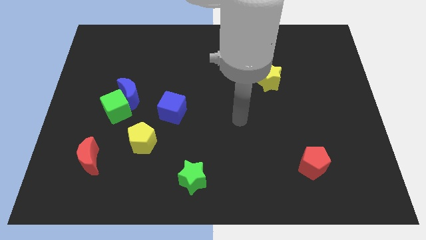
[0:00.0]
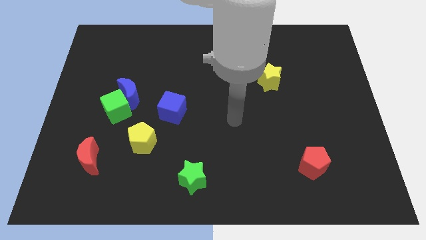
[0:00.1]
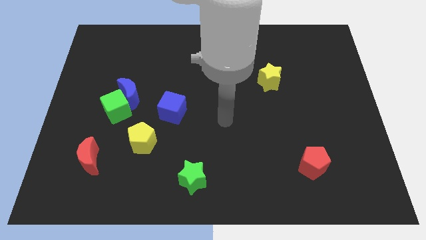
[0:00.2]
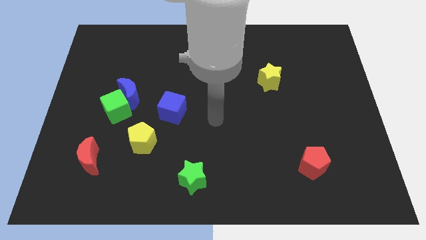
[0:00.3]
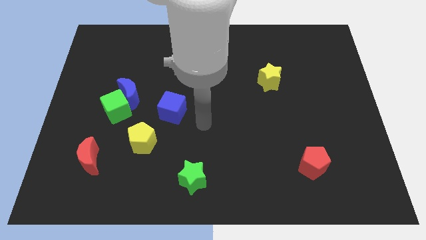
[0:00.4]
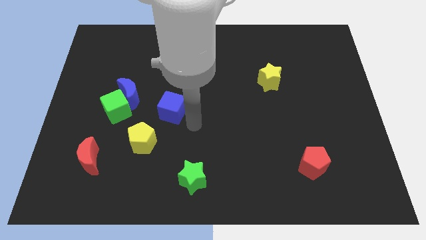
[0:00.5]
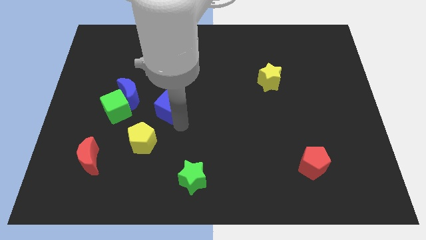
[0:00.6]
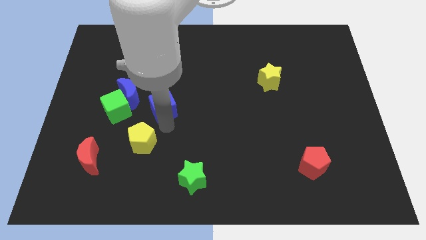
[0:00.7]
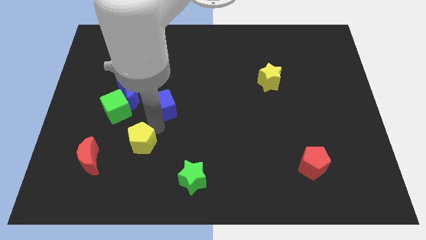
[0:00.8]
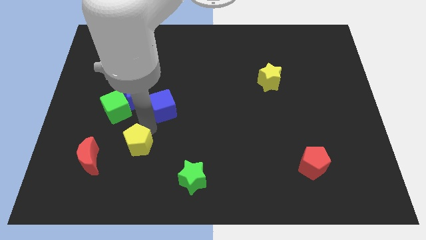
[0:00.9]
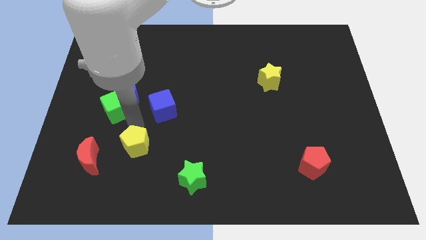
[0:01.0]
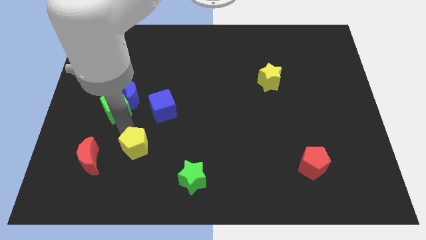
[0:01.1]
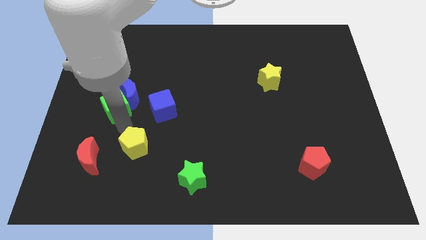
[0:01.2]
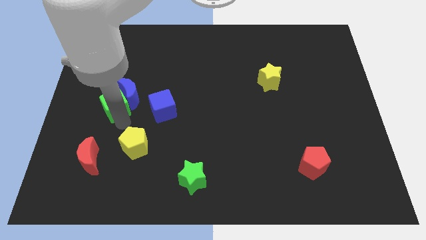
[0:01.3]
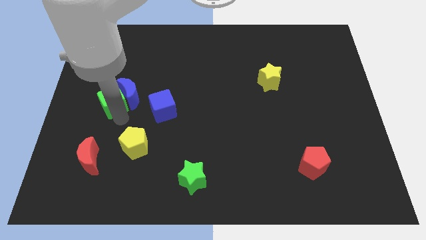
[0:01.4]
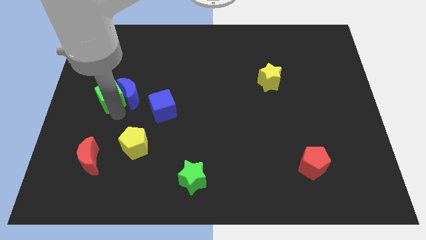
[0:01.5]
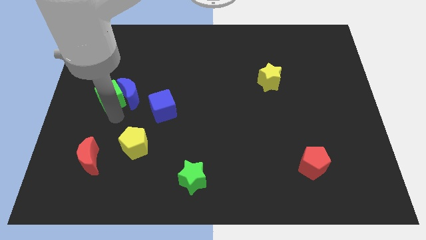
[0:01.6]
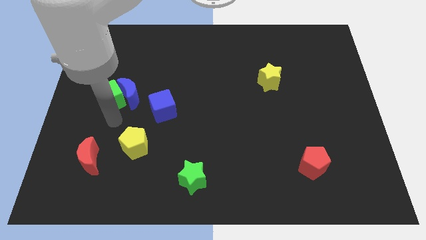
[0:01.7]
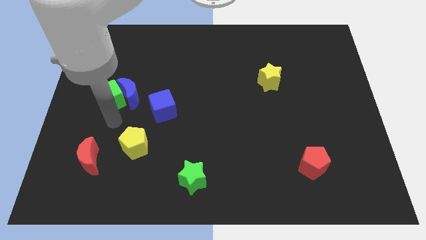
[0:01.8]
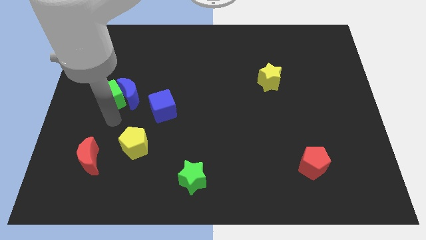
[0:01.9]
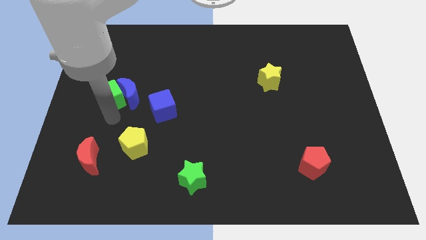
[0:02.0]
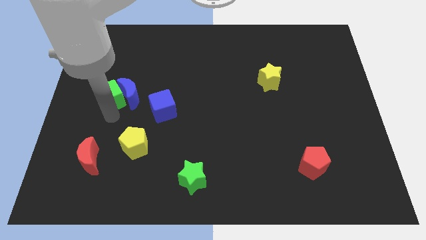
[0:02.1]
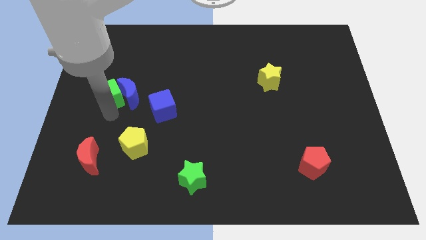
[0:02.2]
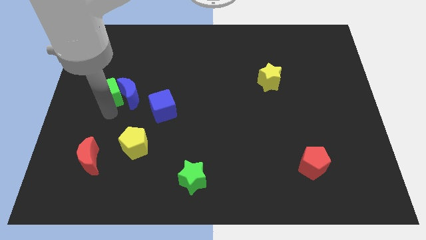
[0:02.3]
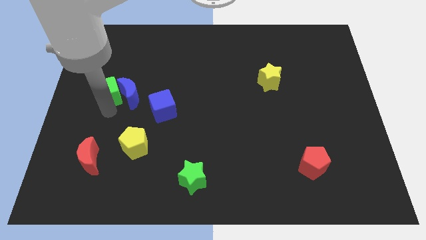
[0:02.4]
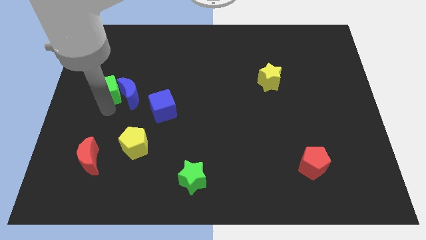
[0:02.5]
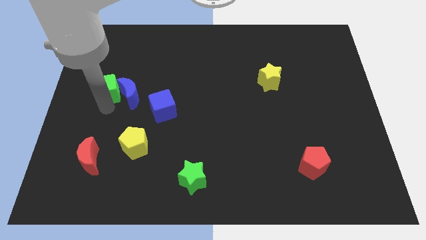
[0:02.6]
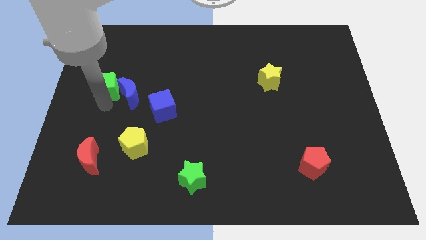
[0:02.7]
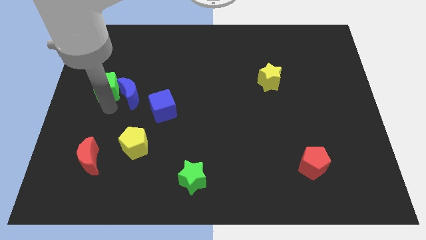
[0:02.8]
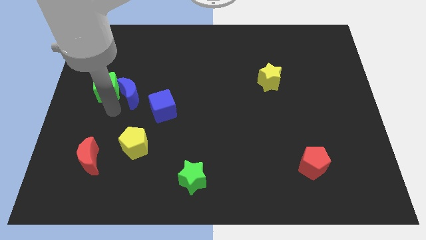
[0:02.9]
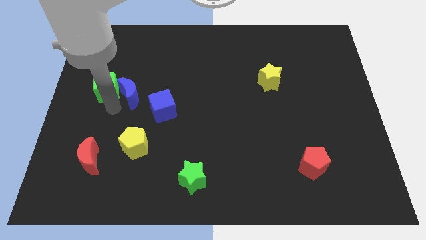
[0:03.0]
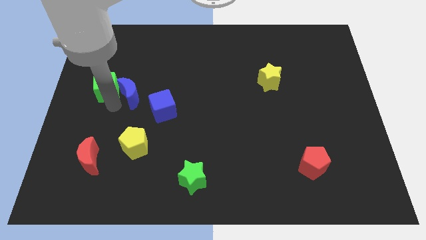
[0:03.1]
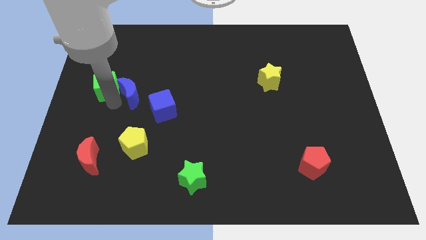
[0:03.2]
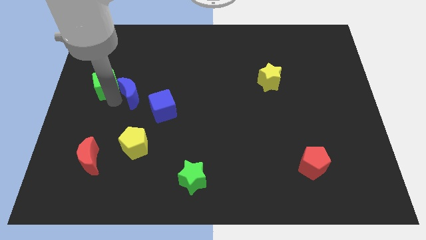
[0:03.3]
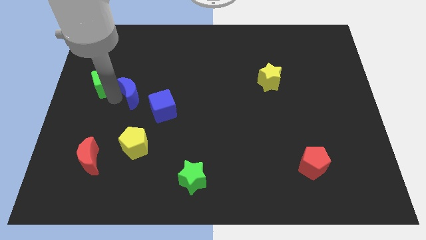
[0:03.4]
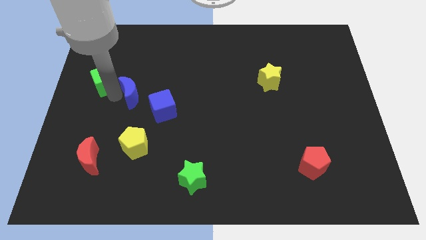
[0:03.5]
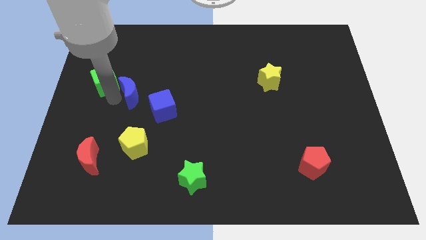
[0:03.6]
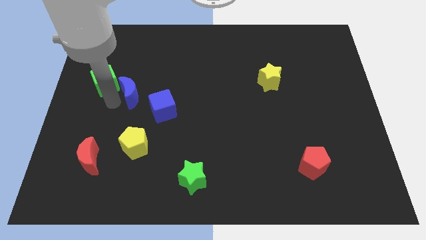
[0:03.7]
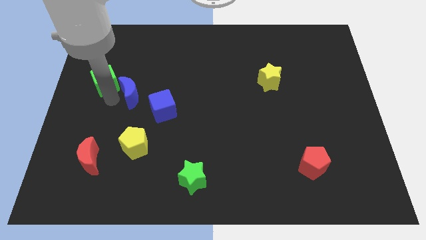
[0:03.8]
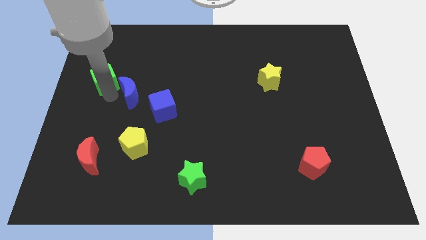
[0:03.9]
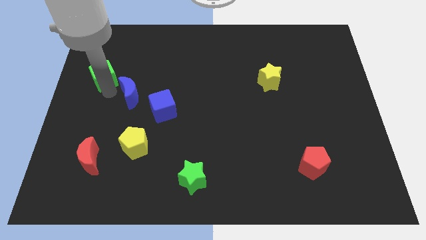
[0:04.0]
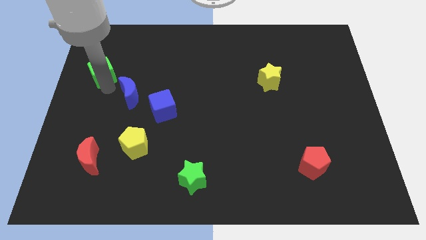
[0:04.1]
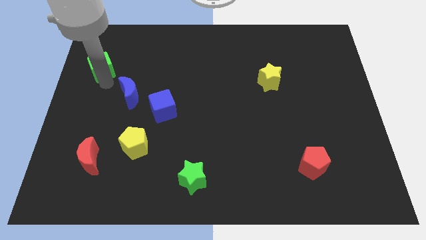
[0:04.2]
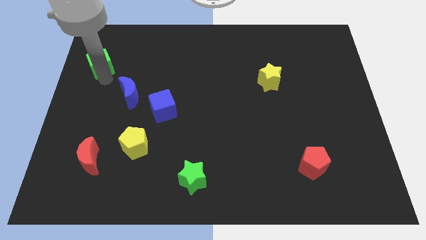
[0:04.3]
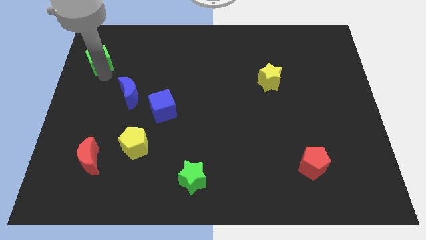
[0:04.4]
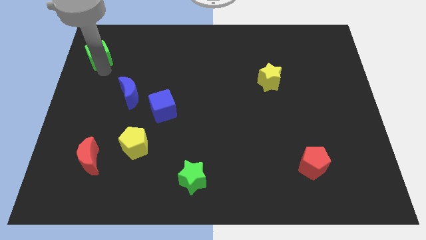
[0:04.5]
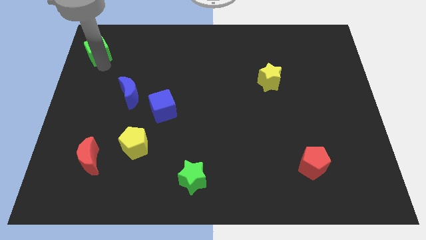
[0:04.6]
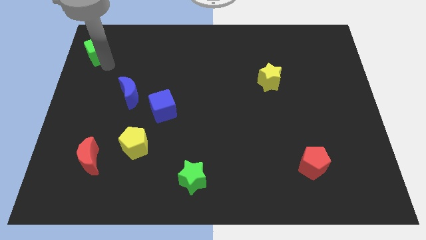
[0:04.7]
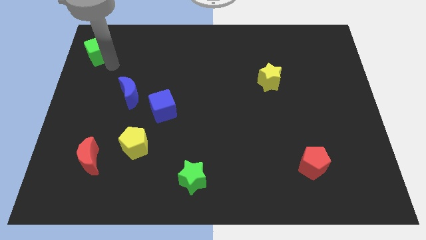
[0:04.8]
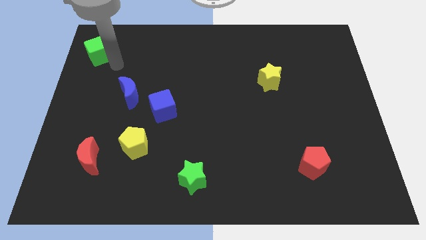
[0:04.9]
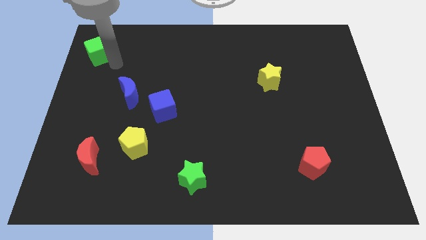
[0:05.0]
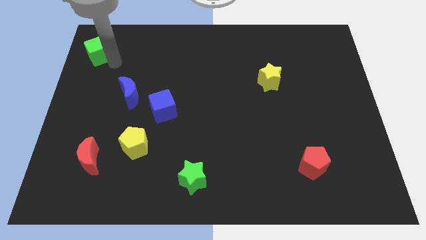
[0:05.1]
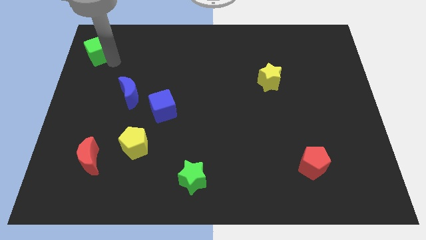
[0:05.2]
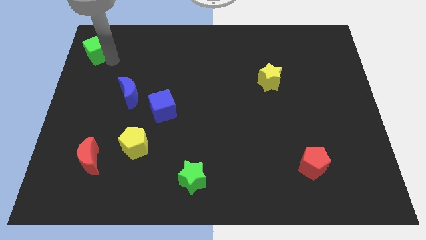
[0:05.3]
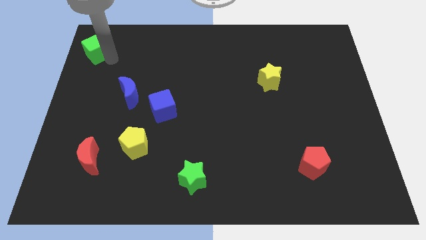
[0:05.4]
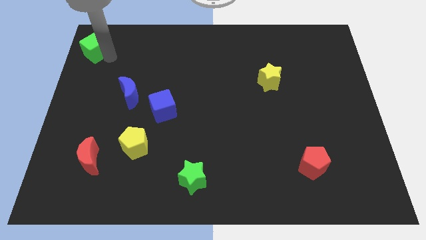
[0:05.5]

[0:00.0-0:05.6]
slide the green cube to the top left of the board

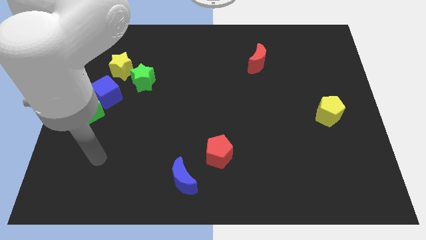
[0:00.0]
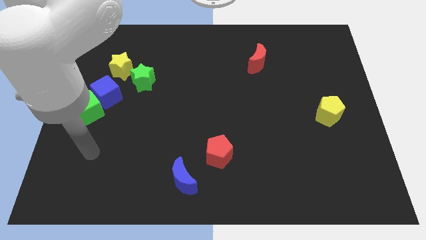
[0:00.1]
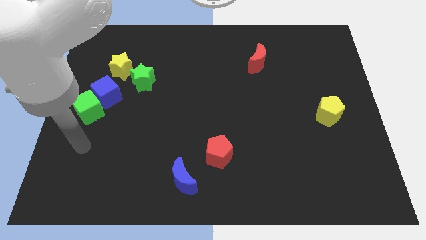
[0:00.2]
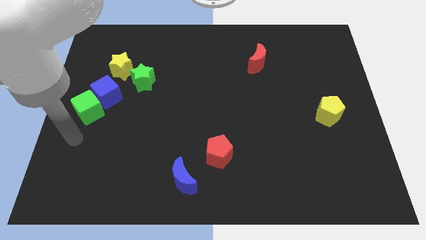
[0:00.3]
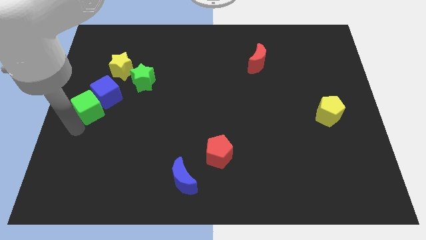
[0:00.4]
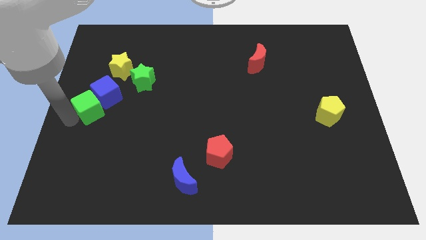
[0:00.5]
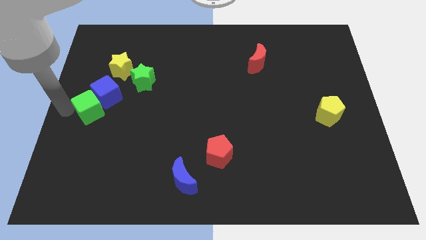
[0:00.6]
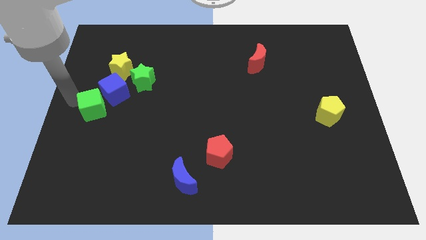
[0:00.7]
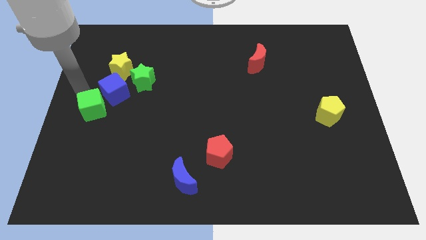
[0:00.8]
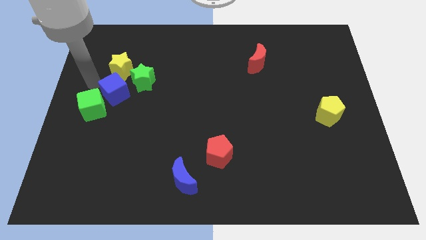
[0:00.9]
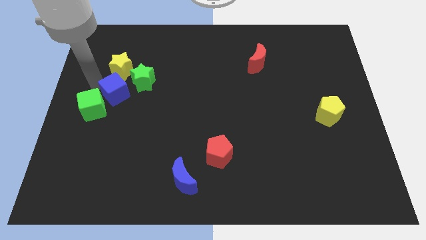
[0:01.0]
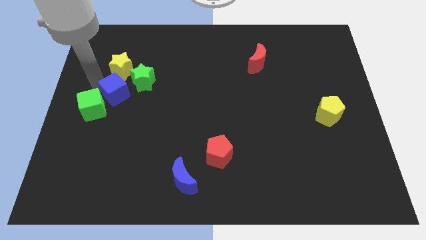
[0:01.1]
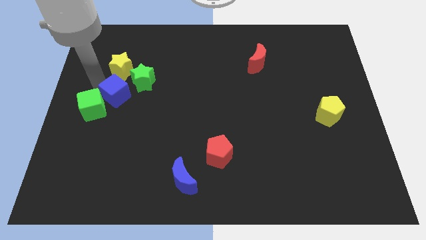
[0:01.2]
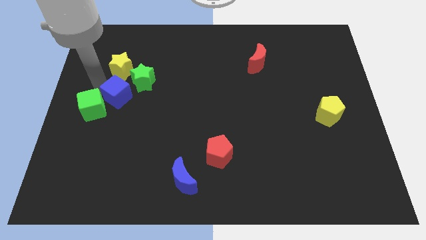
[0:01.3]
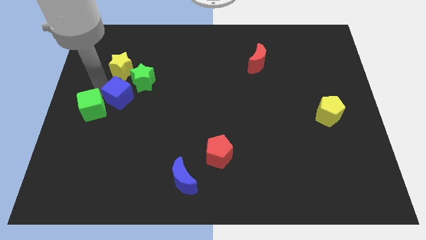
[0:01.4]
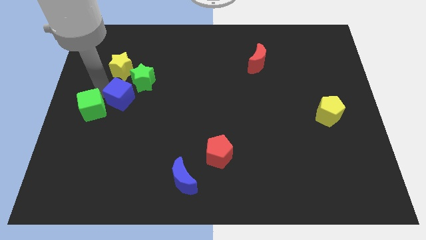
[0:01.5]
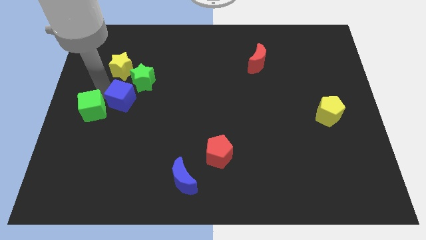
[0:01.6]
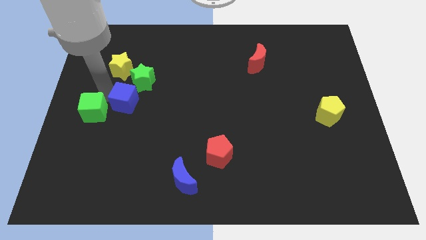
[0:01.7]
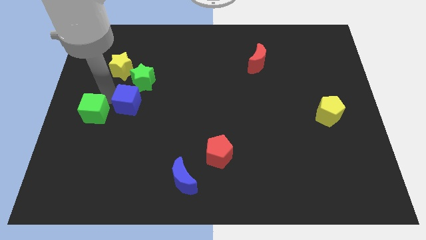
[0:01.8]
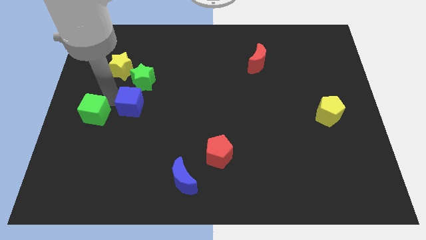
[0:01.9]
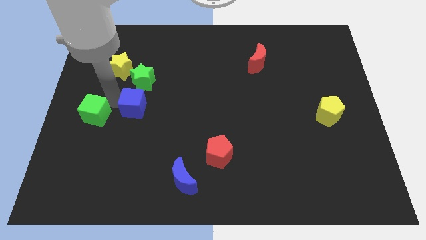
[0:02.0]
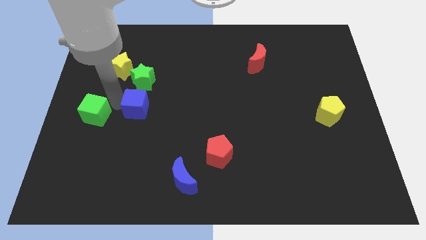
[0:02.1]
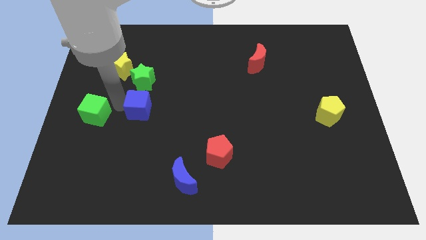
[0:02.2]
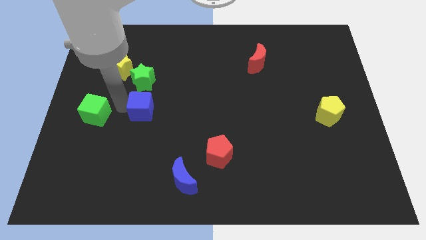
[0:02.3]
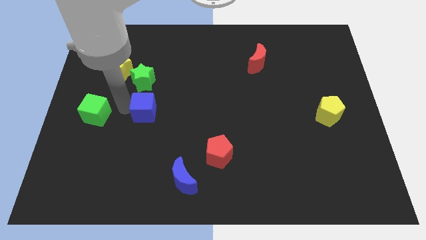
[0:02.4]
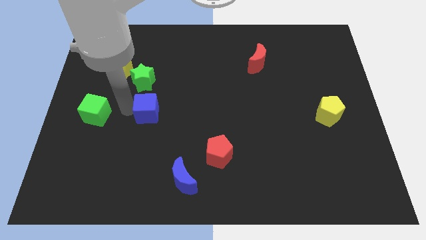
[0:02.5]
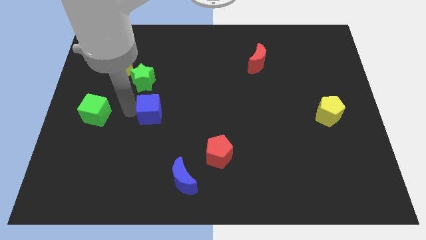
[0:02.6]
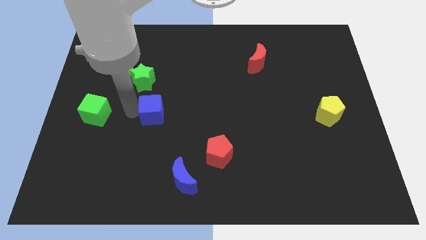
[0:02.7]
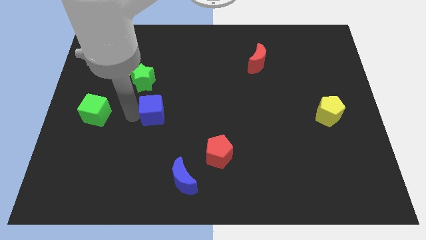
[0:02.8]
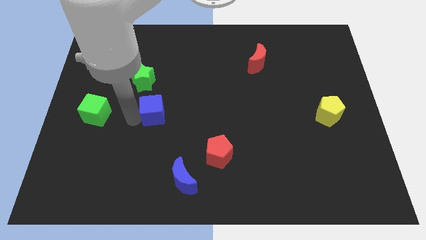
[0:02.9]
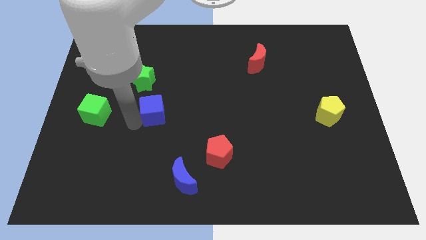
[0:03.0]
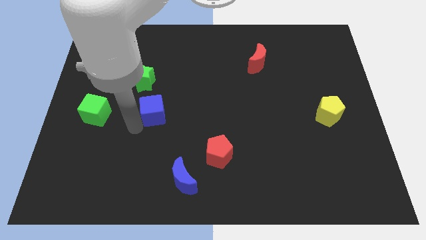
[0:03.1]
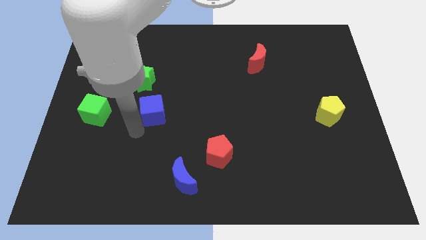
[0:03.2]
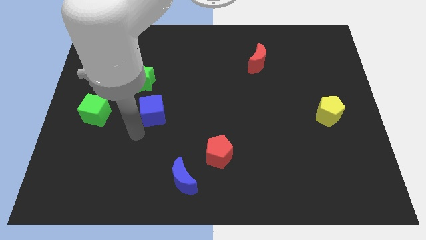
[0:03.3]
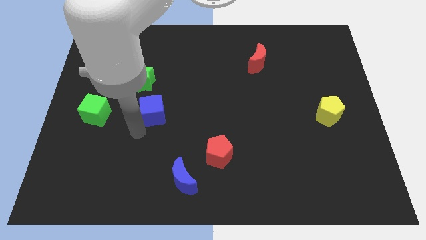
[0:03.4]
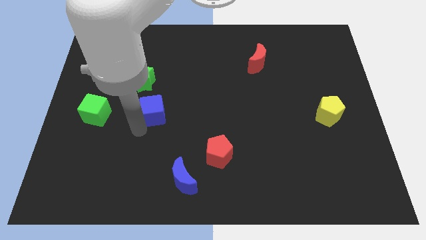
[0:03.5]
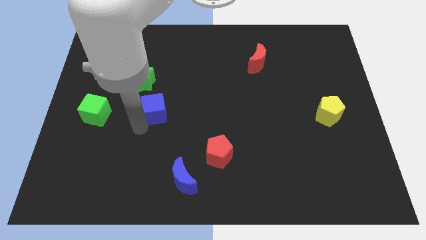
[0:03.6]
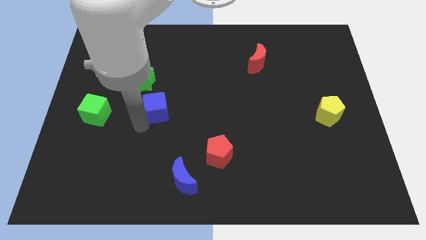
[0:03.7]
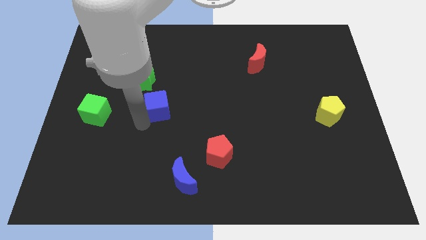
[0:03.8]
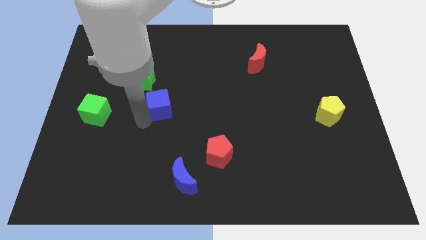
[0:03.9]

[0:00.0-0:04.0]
slide the blue cube to the center of the board
